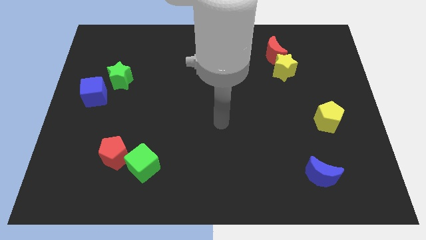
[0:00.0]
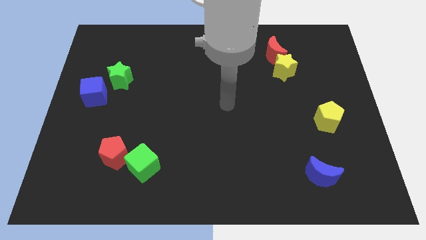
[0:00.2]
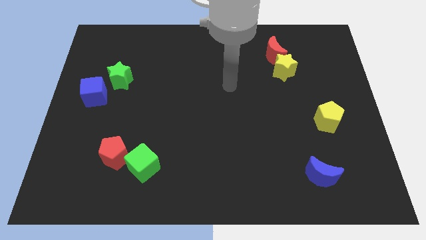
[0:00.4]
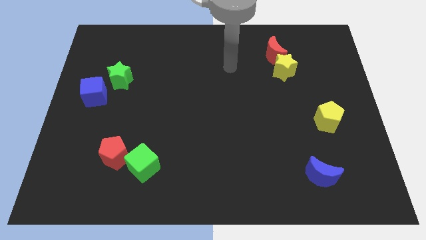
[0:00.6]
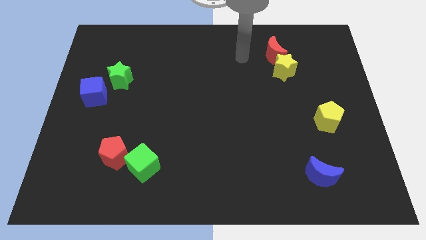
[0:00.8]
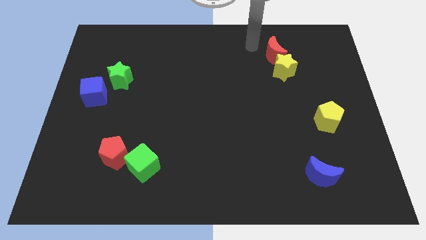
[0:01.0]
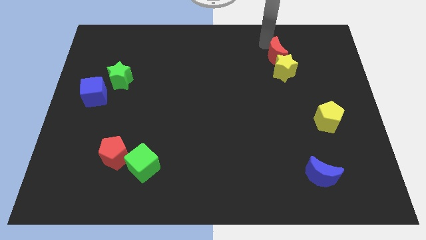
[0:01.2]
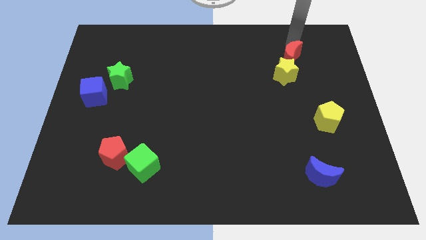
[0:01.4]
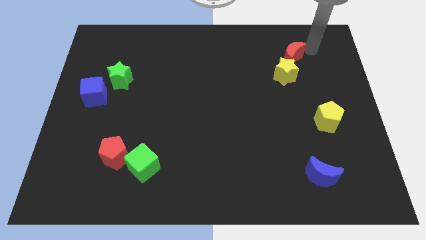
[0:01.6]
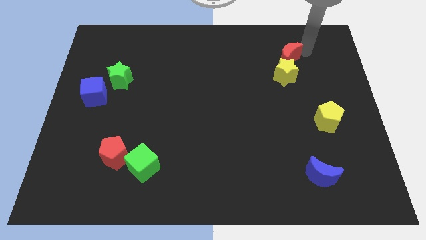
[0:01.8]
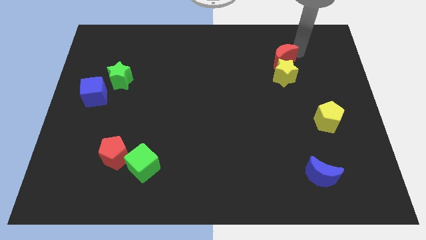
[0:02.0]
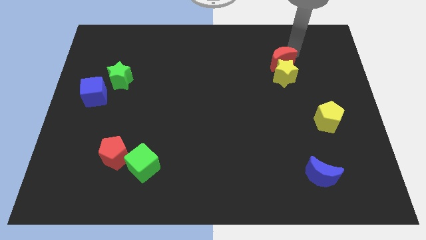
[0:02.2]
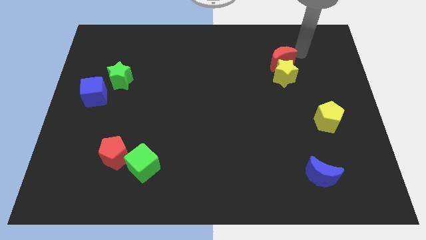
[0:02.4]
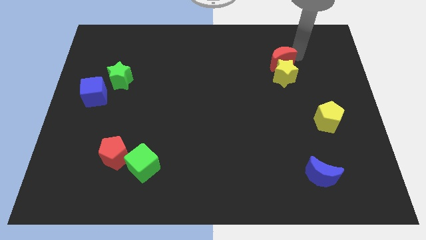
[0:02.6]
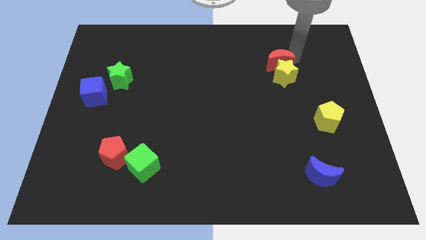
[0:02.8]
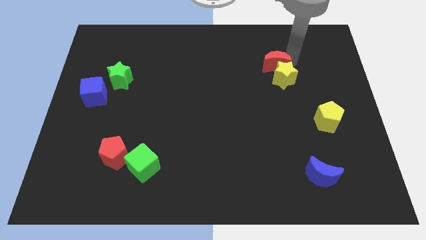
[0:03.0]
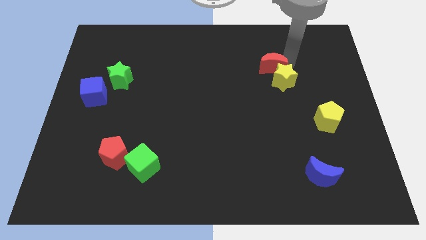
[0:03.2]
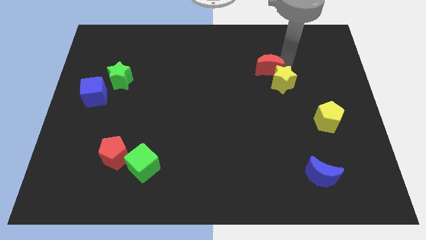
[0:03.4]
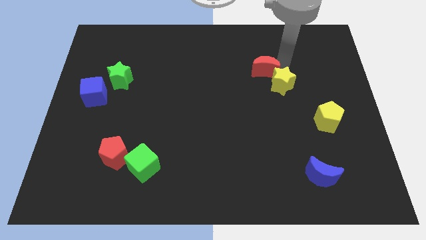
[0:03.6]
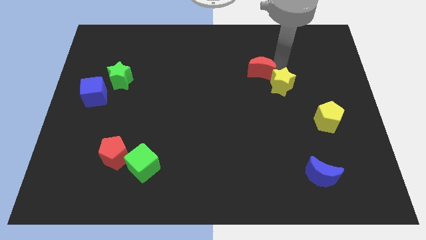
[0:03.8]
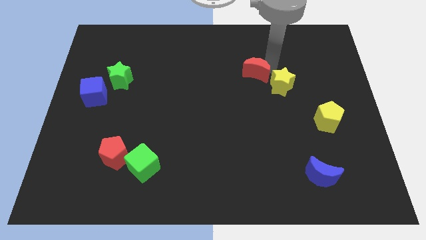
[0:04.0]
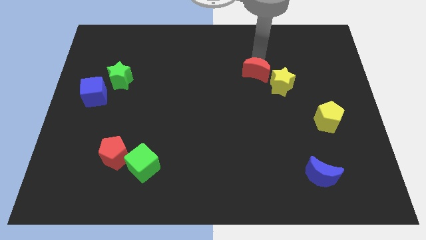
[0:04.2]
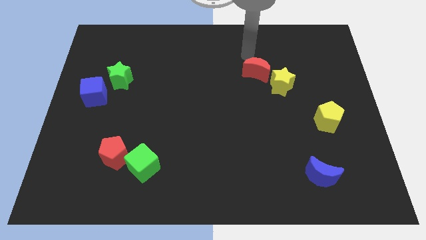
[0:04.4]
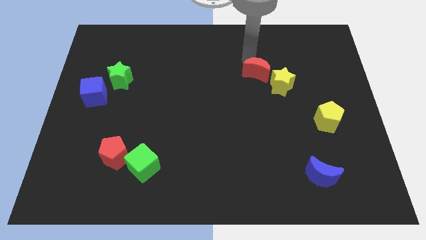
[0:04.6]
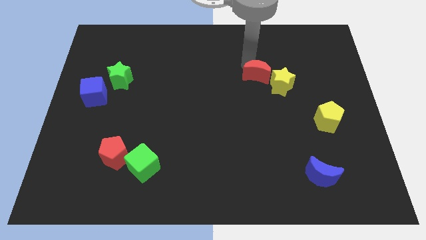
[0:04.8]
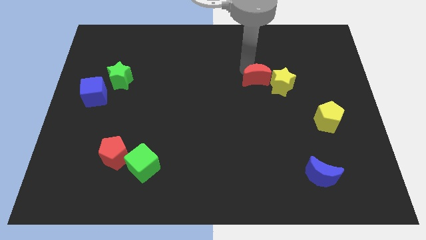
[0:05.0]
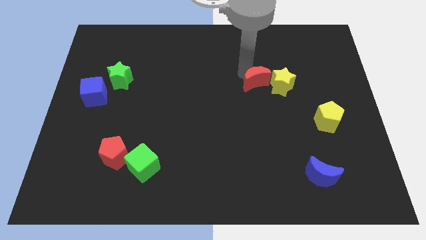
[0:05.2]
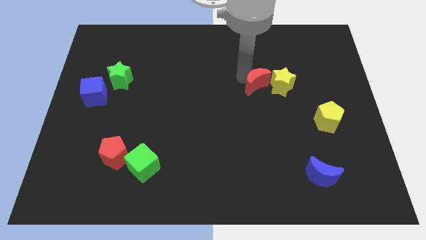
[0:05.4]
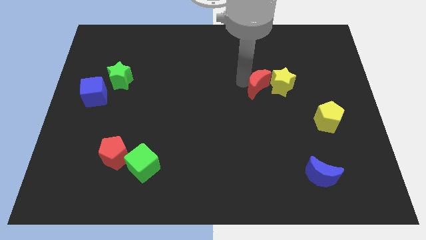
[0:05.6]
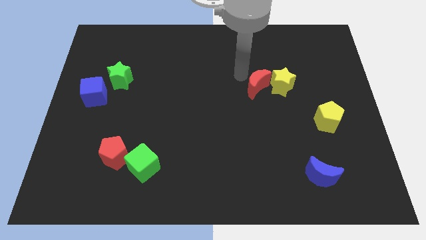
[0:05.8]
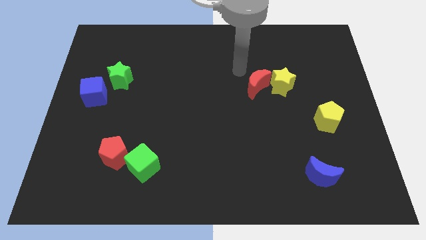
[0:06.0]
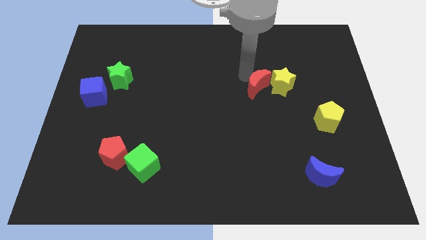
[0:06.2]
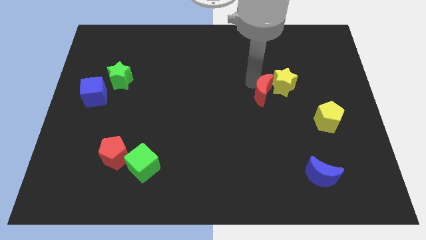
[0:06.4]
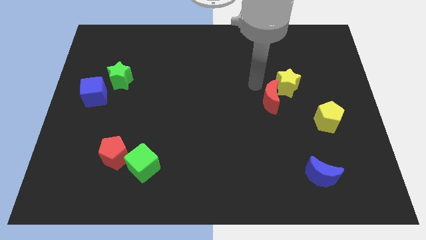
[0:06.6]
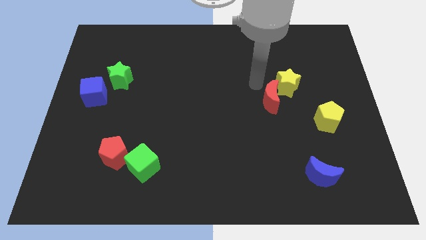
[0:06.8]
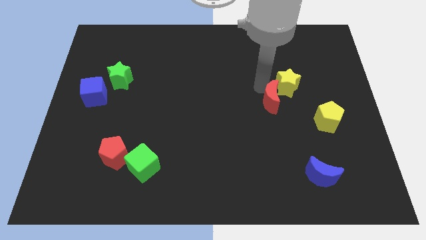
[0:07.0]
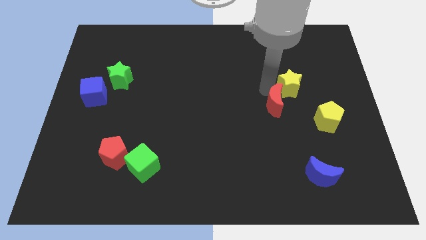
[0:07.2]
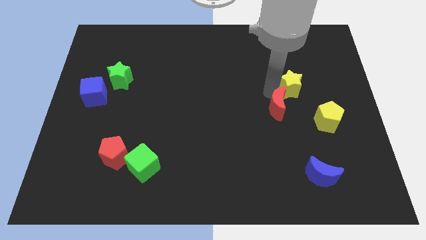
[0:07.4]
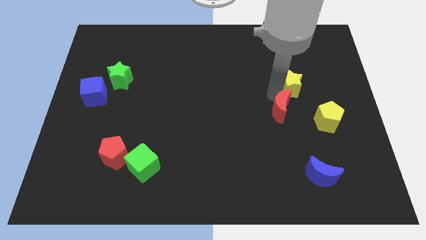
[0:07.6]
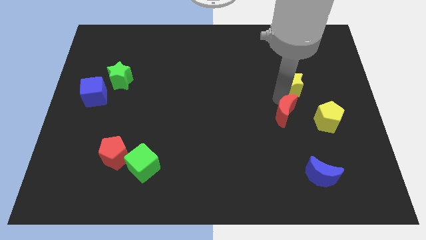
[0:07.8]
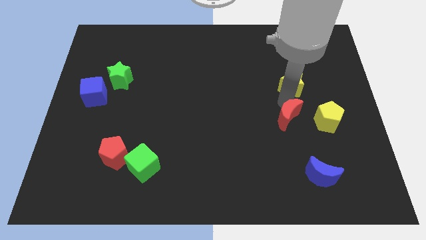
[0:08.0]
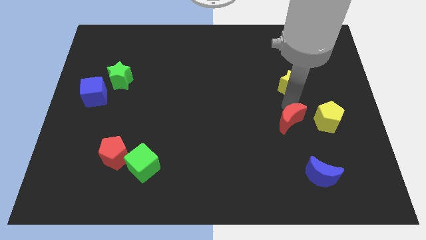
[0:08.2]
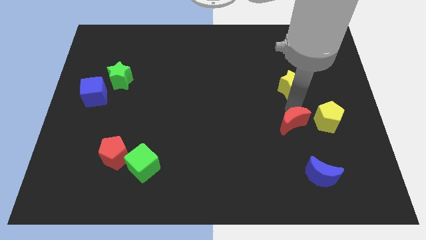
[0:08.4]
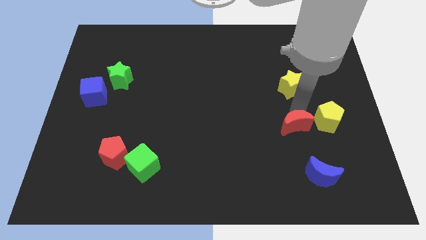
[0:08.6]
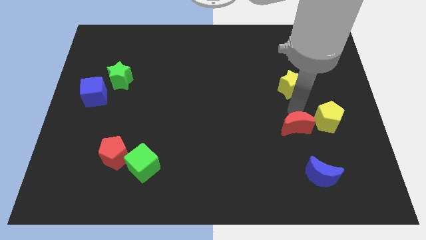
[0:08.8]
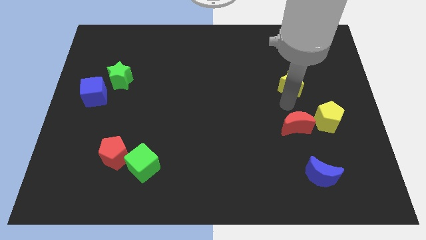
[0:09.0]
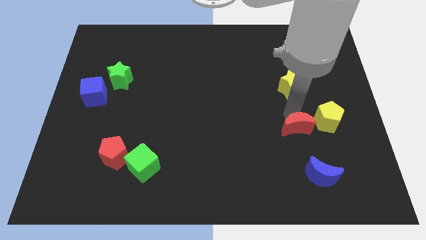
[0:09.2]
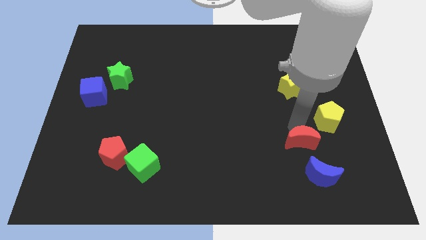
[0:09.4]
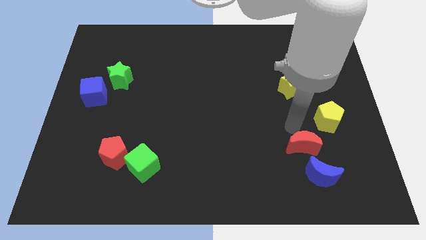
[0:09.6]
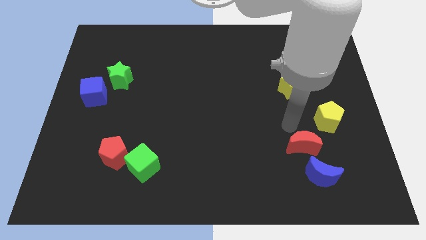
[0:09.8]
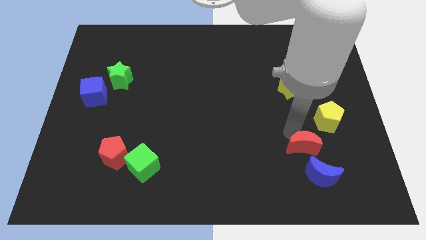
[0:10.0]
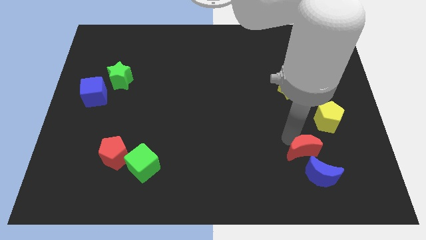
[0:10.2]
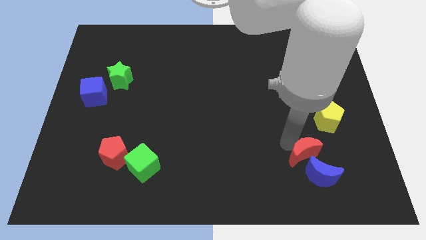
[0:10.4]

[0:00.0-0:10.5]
slide the red moon towards the blue moon

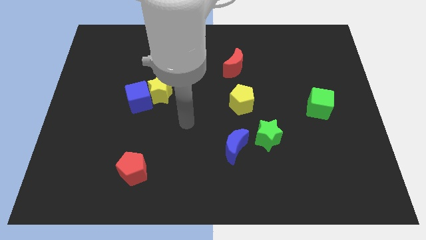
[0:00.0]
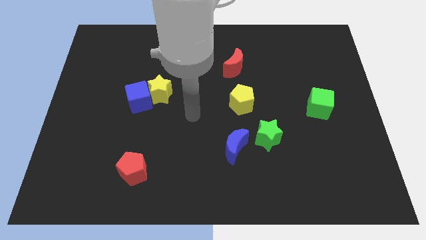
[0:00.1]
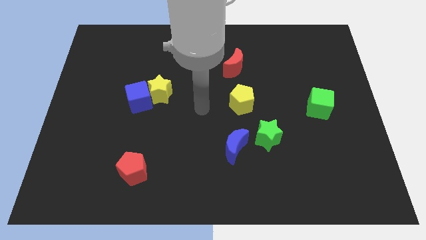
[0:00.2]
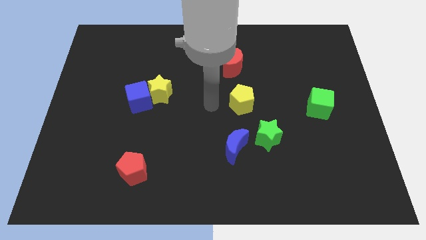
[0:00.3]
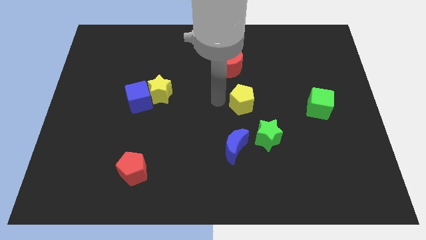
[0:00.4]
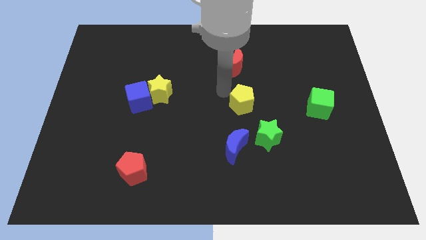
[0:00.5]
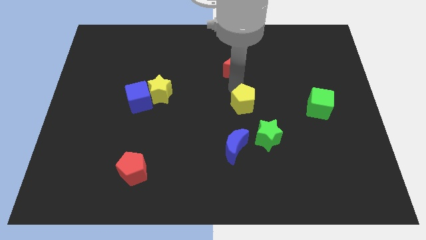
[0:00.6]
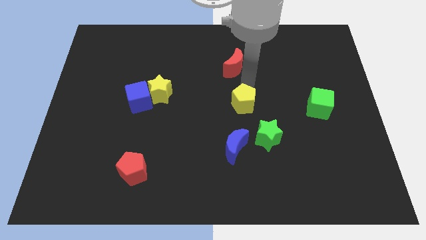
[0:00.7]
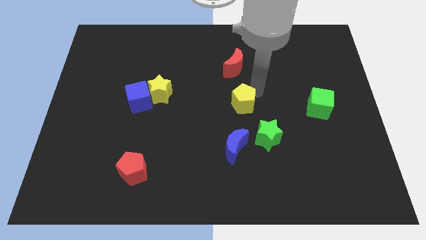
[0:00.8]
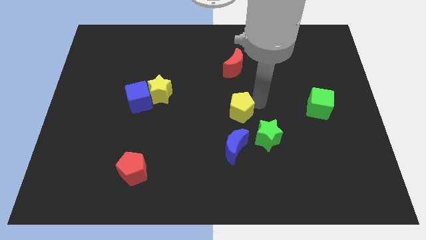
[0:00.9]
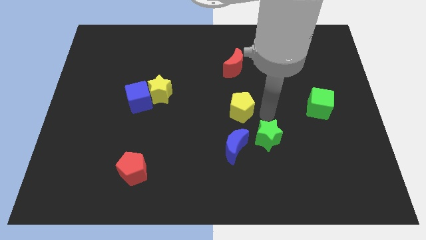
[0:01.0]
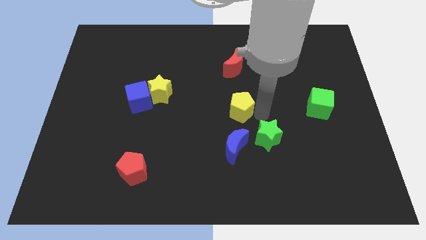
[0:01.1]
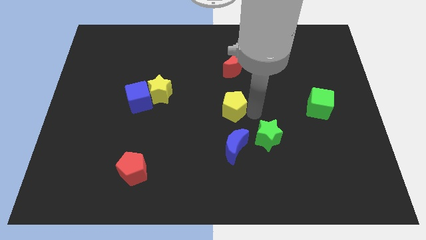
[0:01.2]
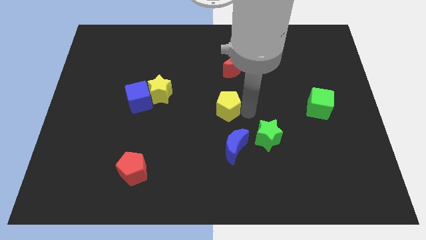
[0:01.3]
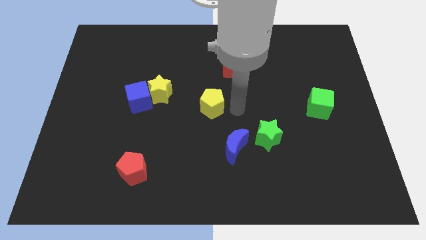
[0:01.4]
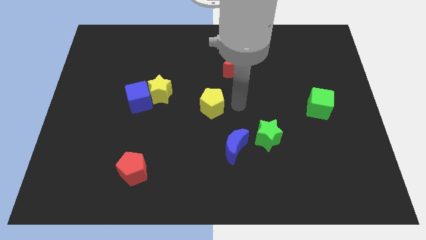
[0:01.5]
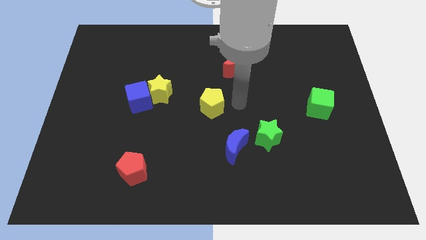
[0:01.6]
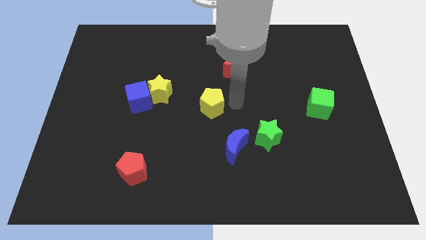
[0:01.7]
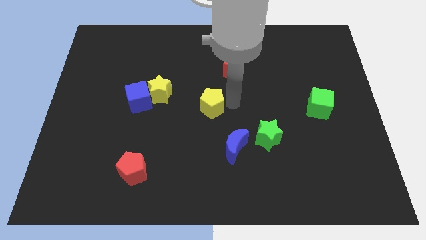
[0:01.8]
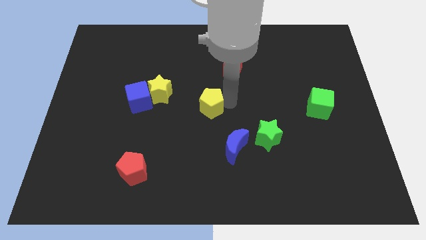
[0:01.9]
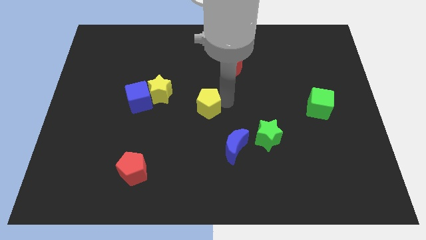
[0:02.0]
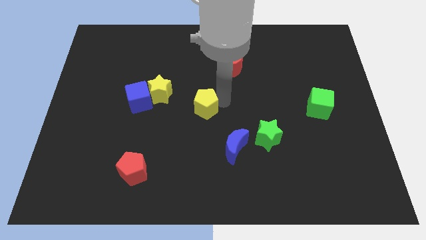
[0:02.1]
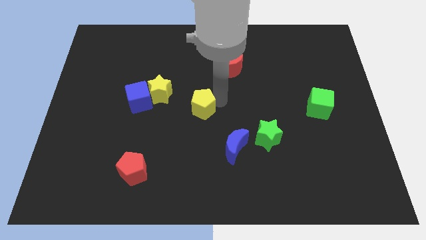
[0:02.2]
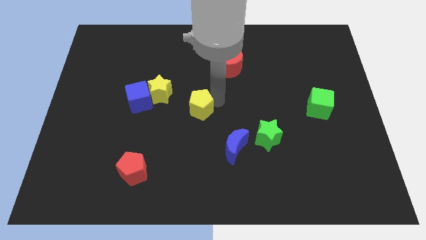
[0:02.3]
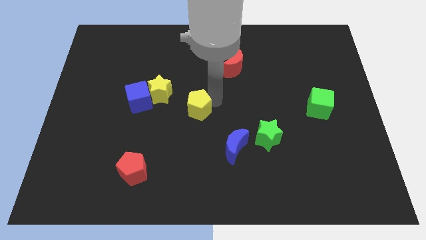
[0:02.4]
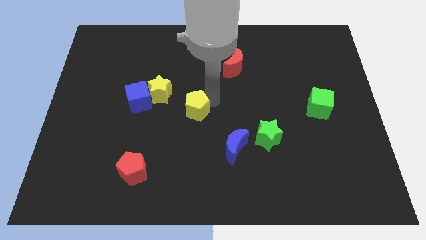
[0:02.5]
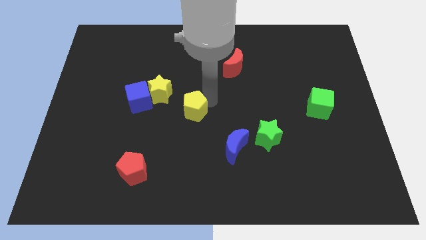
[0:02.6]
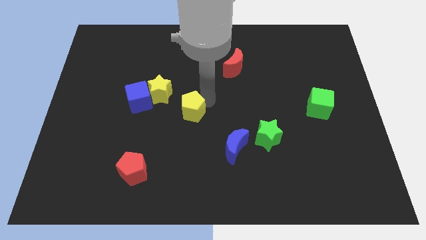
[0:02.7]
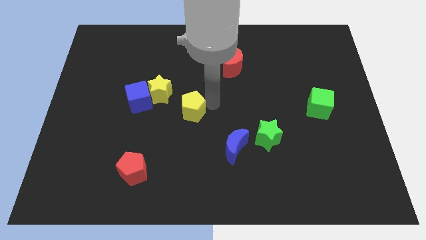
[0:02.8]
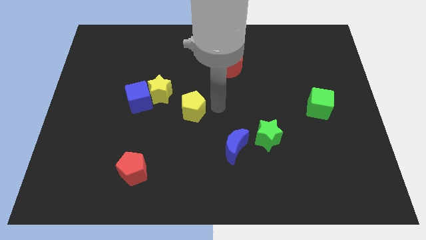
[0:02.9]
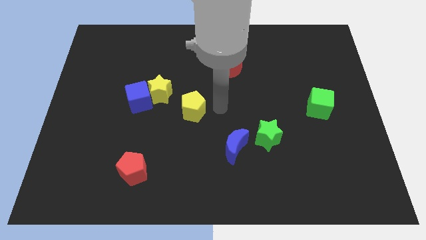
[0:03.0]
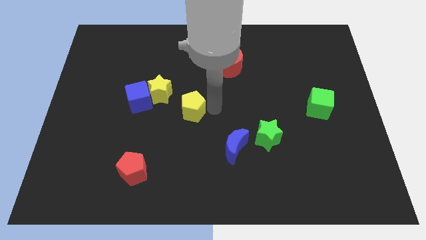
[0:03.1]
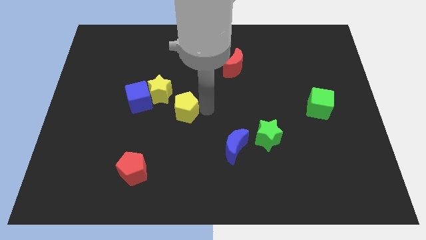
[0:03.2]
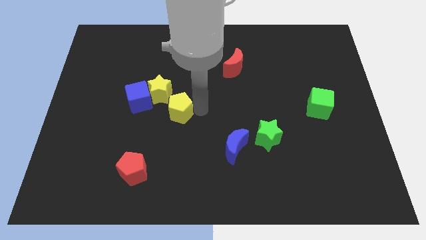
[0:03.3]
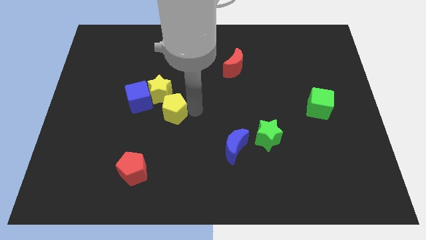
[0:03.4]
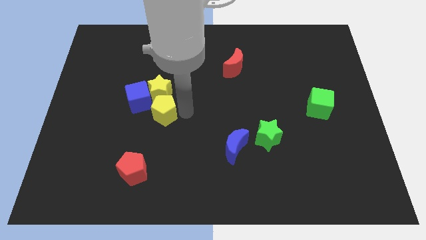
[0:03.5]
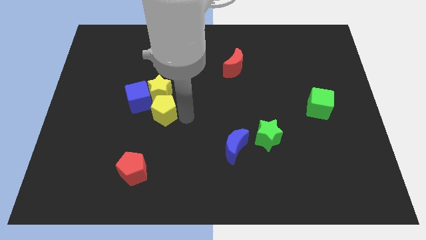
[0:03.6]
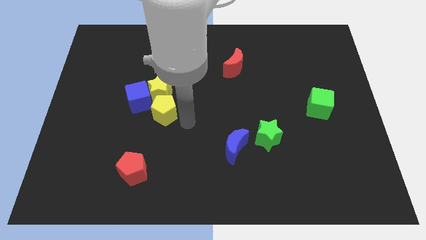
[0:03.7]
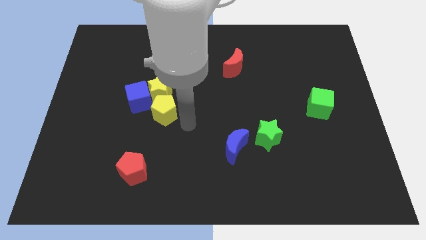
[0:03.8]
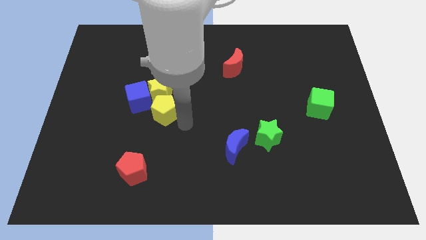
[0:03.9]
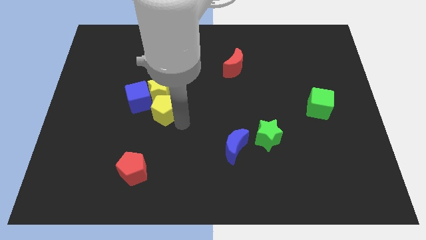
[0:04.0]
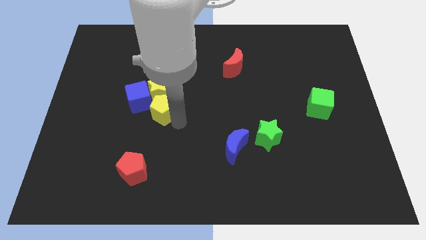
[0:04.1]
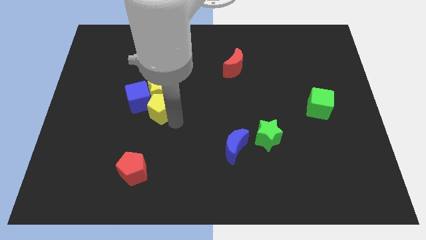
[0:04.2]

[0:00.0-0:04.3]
push the yellow pentagon to the blue cube
